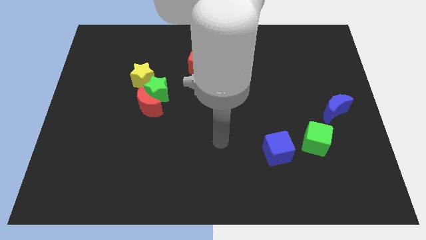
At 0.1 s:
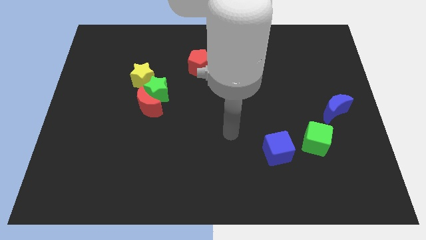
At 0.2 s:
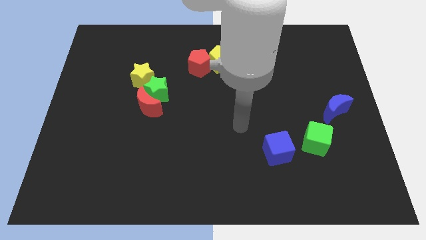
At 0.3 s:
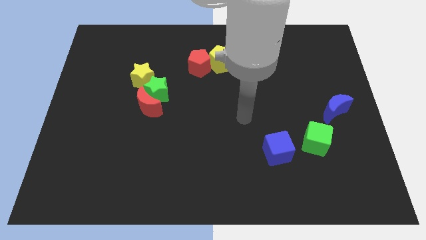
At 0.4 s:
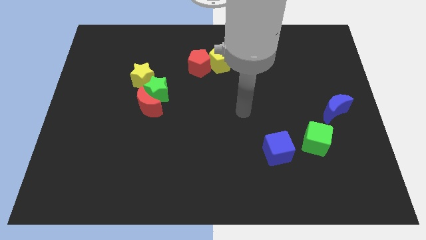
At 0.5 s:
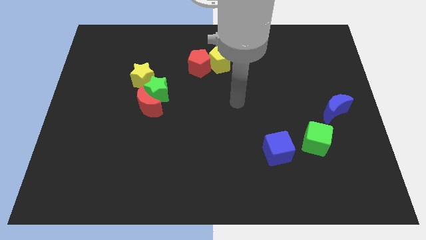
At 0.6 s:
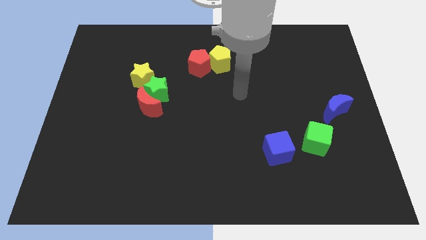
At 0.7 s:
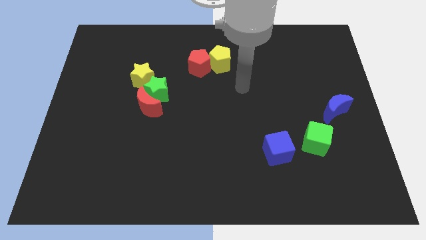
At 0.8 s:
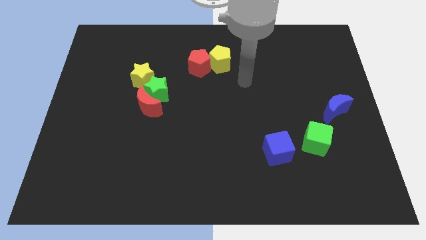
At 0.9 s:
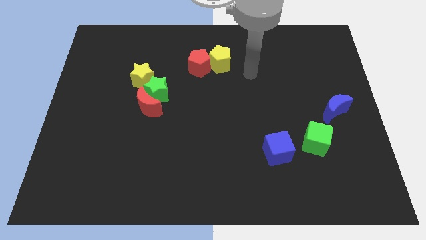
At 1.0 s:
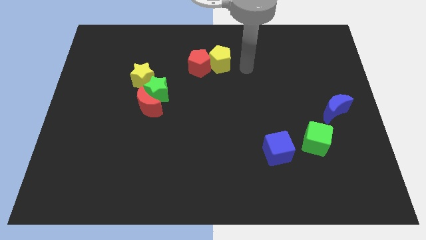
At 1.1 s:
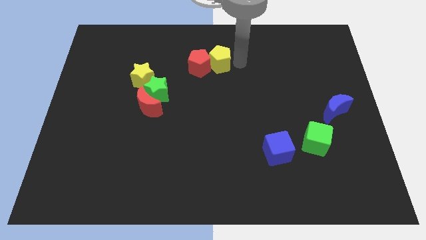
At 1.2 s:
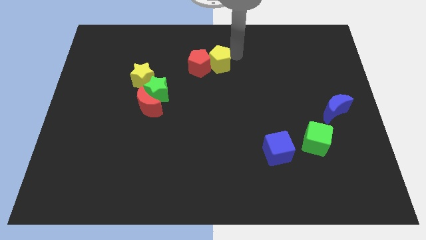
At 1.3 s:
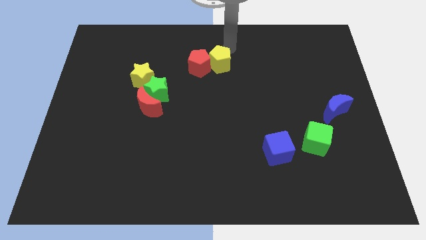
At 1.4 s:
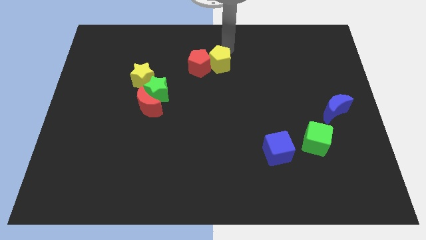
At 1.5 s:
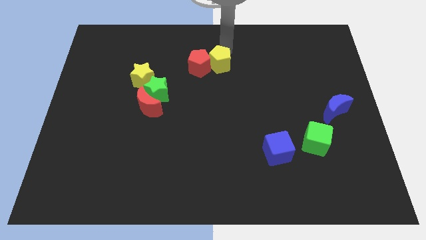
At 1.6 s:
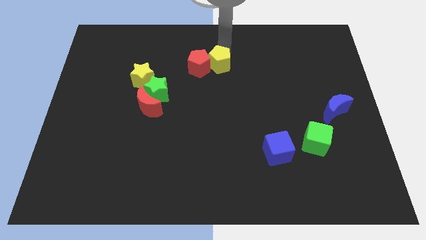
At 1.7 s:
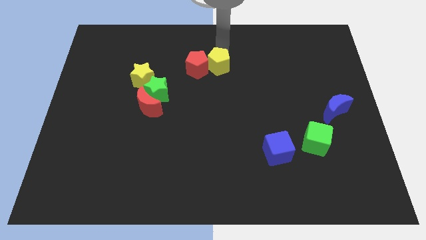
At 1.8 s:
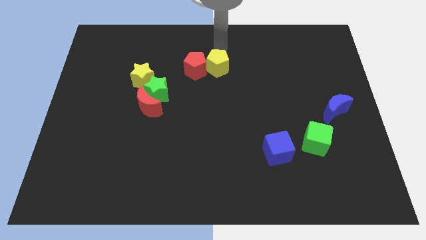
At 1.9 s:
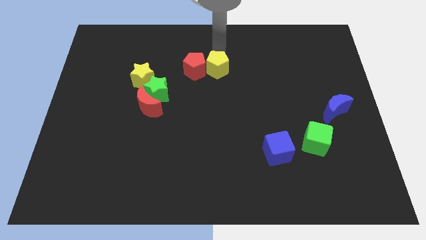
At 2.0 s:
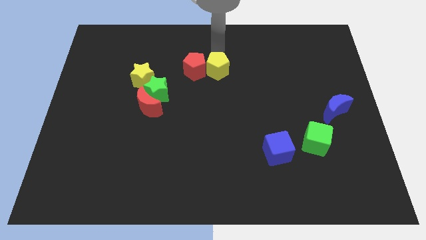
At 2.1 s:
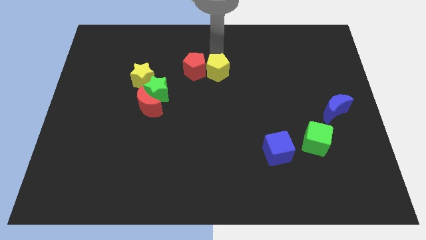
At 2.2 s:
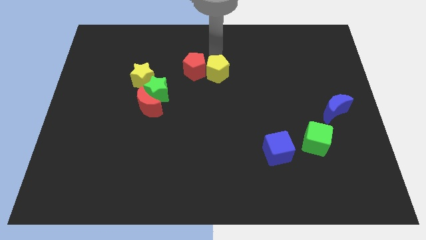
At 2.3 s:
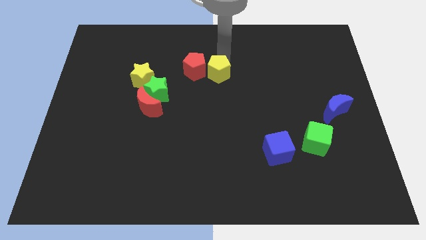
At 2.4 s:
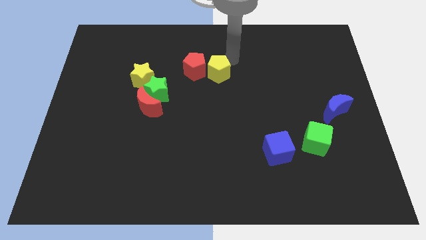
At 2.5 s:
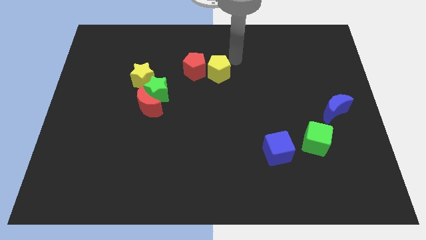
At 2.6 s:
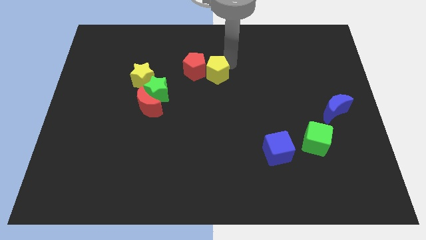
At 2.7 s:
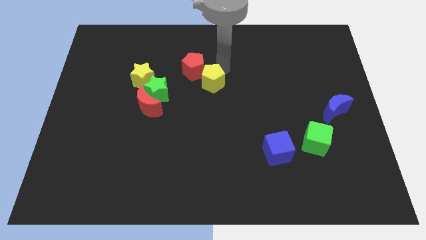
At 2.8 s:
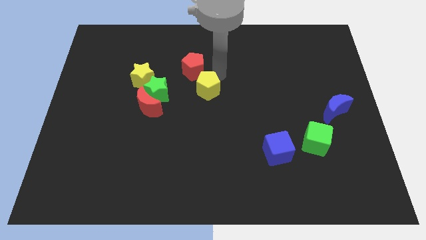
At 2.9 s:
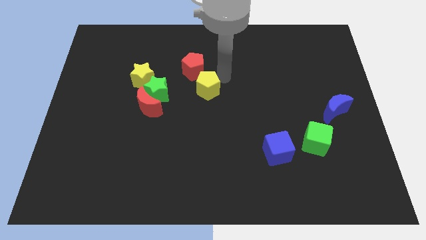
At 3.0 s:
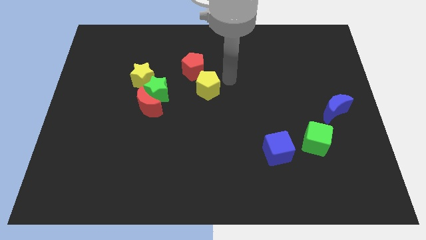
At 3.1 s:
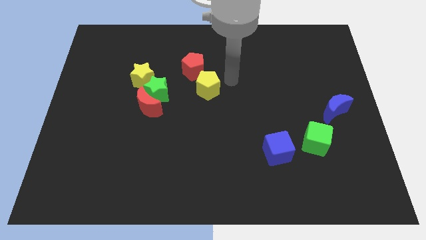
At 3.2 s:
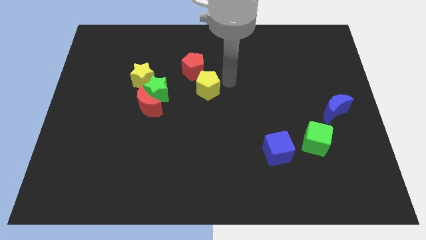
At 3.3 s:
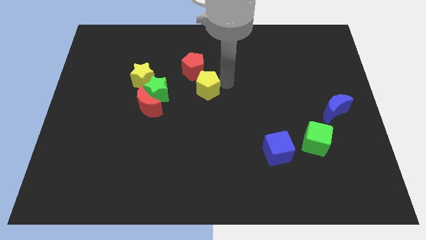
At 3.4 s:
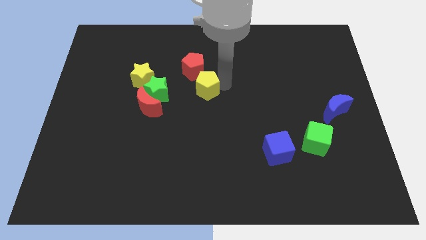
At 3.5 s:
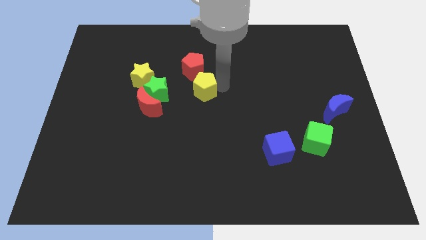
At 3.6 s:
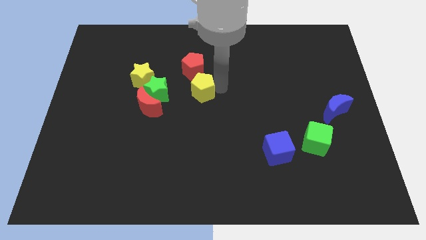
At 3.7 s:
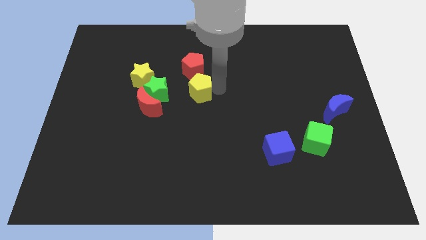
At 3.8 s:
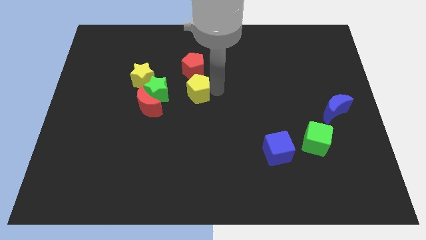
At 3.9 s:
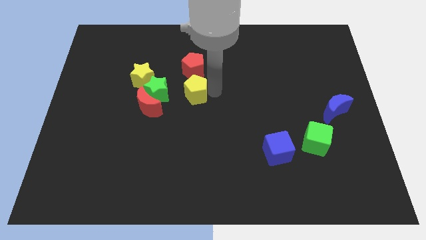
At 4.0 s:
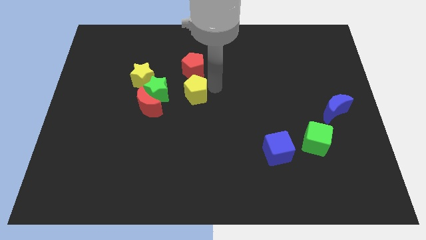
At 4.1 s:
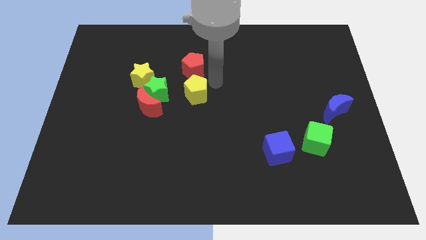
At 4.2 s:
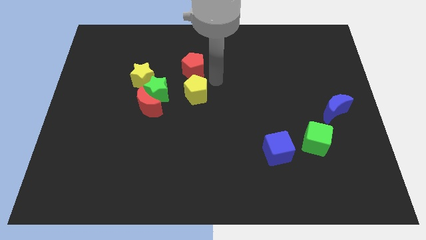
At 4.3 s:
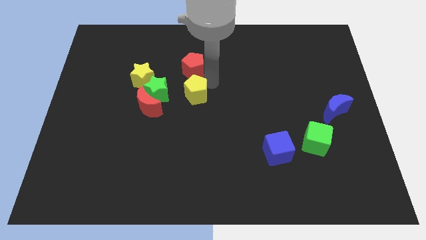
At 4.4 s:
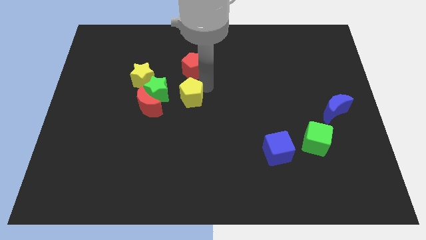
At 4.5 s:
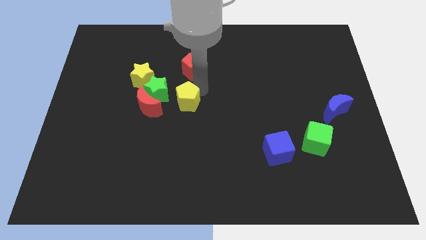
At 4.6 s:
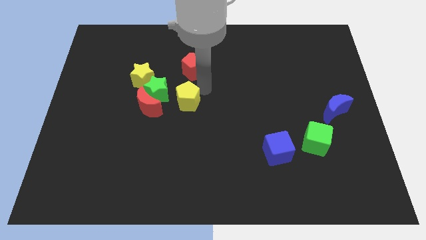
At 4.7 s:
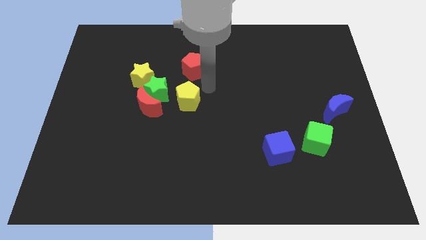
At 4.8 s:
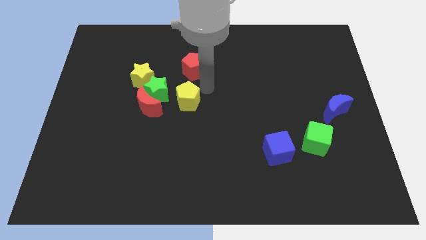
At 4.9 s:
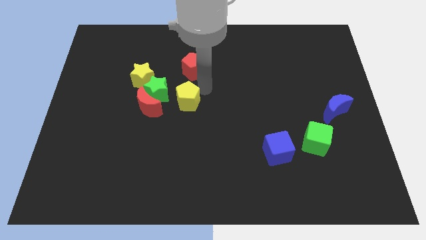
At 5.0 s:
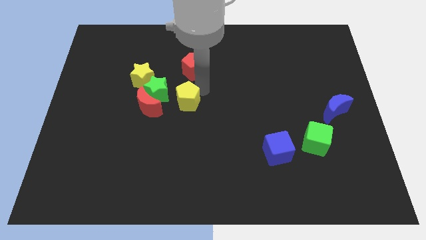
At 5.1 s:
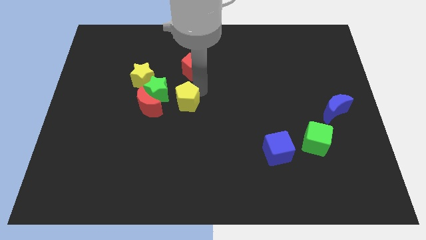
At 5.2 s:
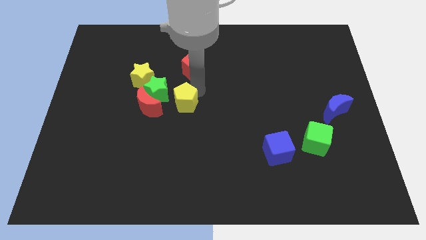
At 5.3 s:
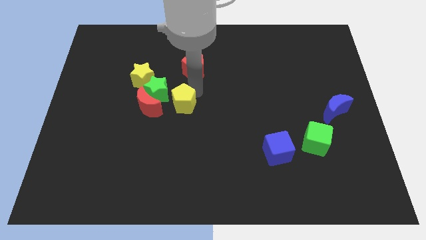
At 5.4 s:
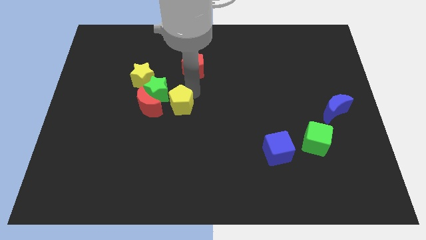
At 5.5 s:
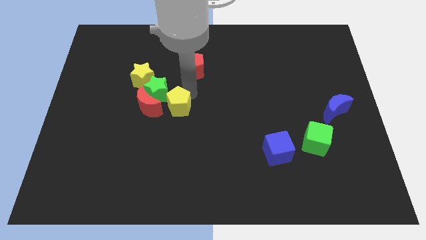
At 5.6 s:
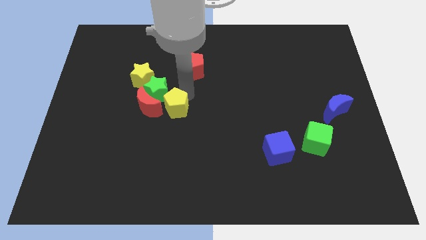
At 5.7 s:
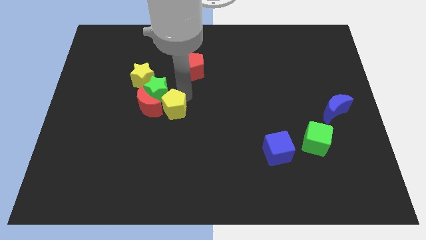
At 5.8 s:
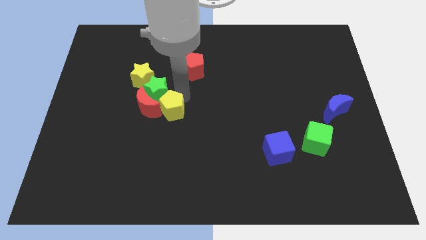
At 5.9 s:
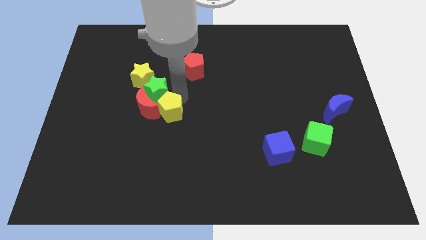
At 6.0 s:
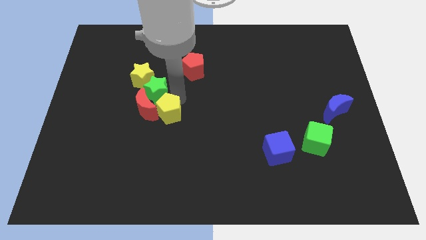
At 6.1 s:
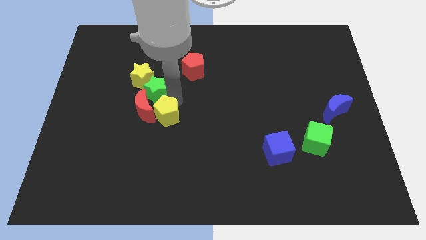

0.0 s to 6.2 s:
slide the yellow pentagon diagonally downwards and left

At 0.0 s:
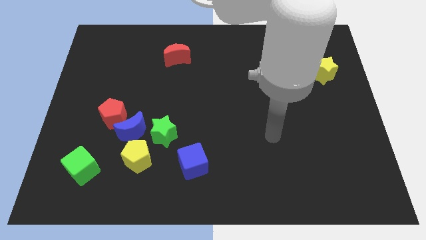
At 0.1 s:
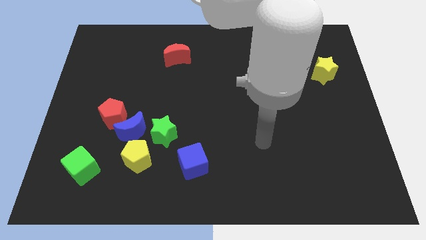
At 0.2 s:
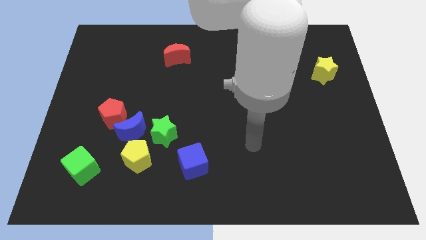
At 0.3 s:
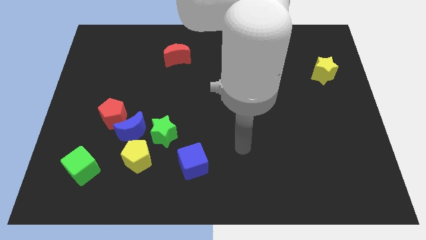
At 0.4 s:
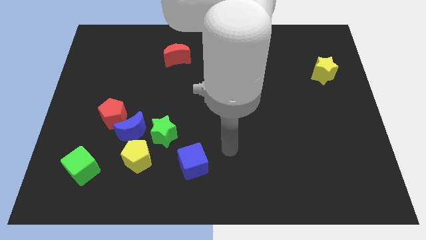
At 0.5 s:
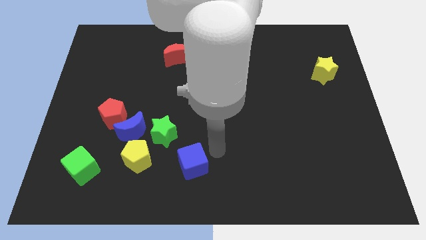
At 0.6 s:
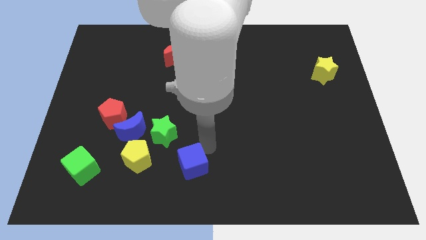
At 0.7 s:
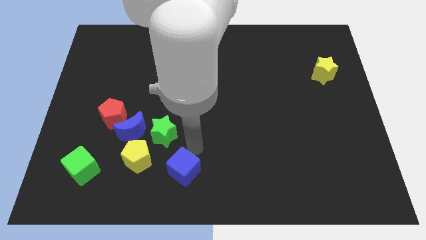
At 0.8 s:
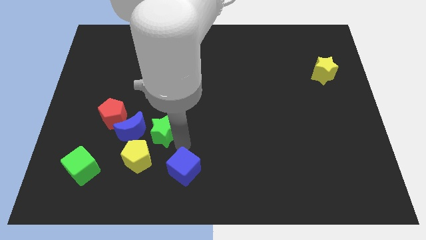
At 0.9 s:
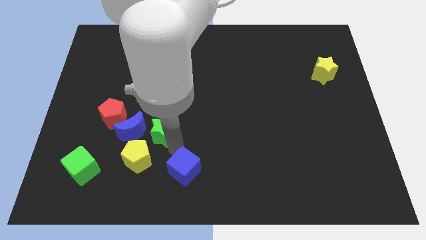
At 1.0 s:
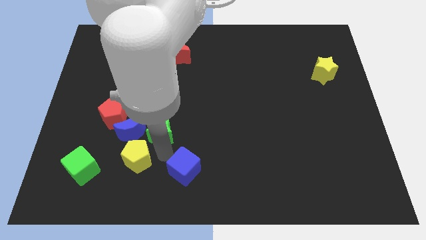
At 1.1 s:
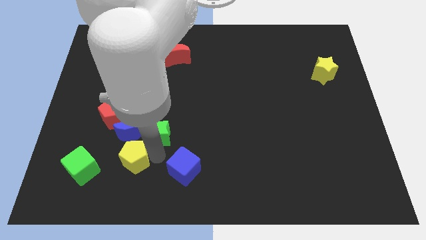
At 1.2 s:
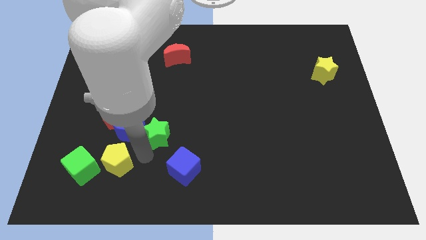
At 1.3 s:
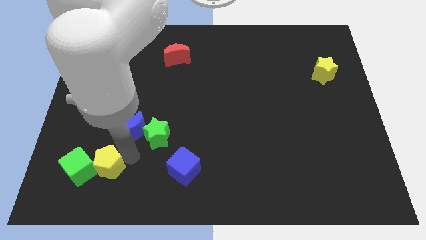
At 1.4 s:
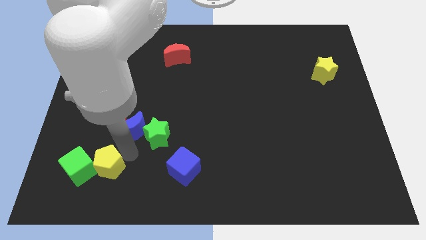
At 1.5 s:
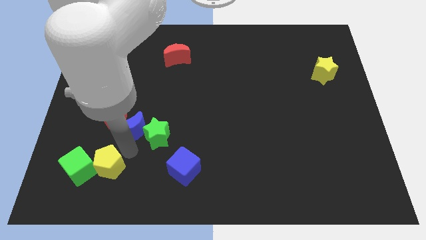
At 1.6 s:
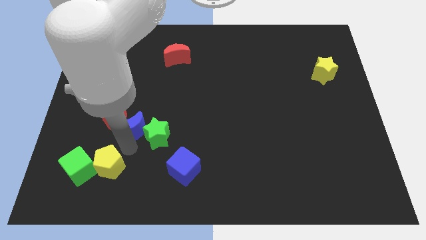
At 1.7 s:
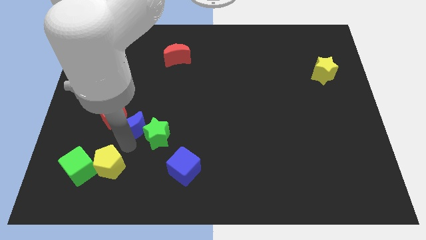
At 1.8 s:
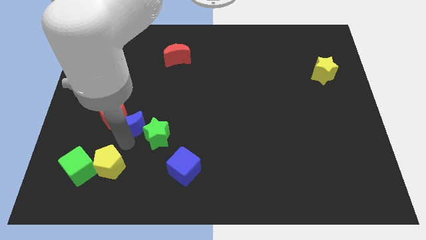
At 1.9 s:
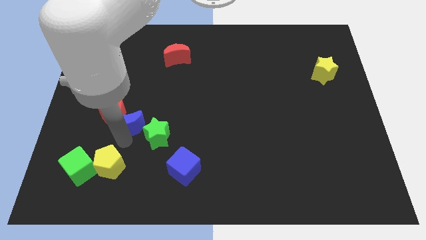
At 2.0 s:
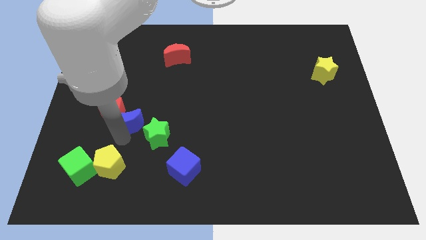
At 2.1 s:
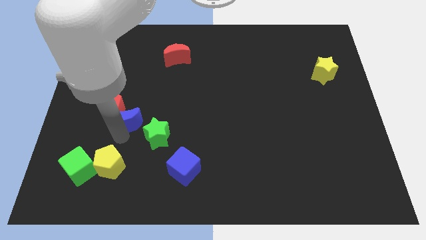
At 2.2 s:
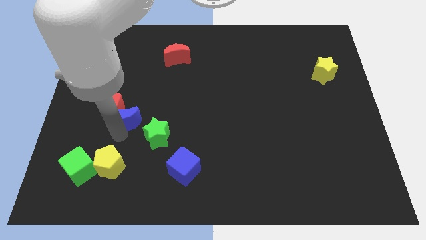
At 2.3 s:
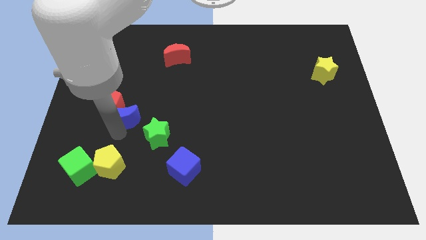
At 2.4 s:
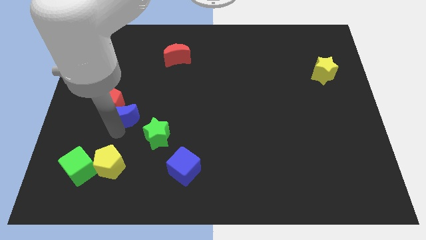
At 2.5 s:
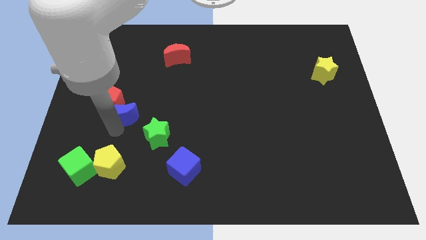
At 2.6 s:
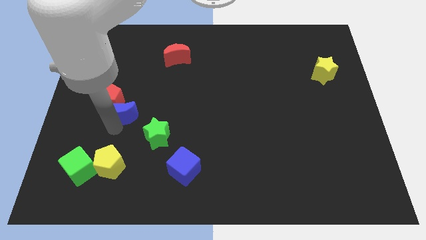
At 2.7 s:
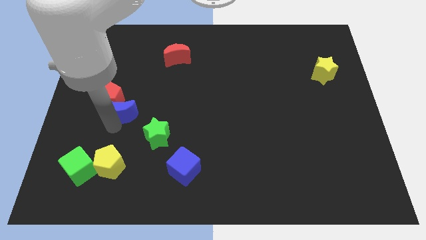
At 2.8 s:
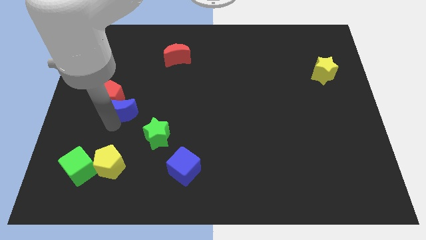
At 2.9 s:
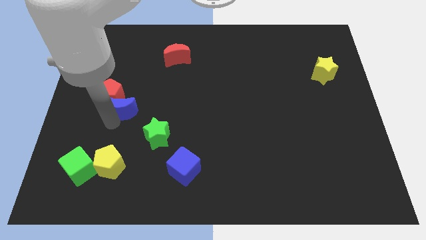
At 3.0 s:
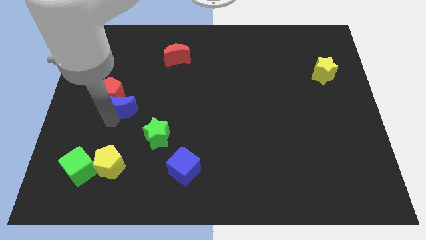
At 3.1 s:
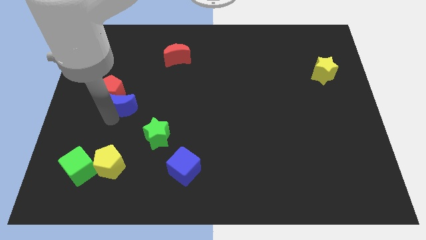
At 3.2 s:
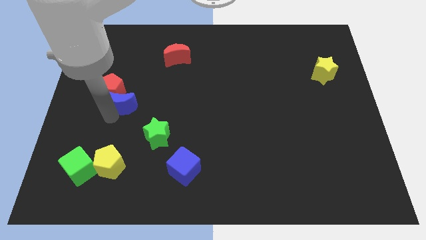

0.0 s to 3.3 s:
move the blue moon a little upwards
